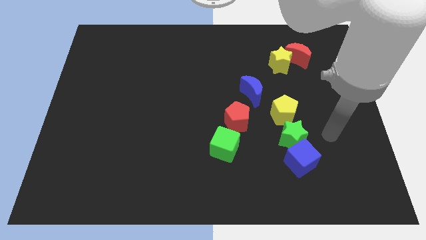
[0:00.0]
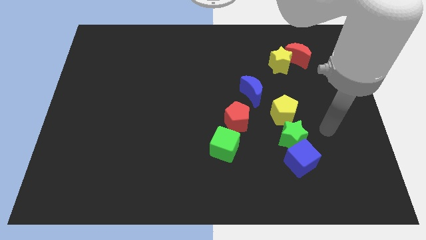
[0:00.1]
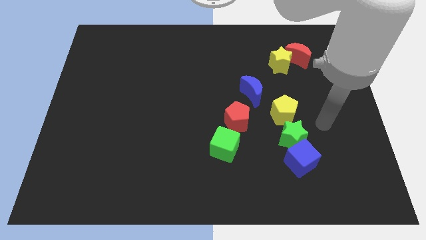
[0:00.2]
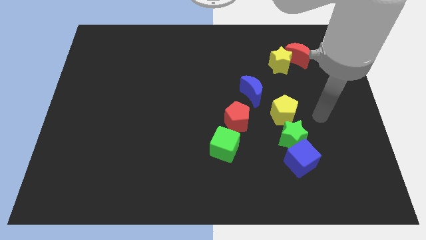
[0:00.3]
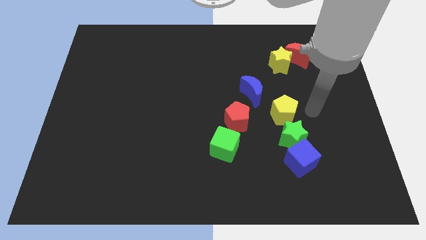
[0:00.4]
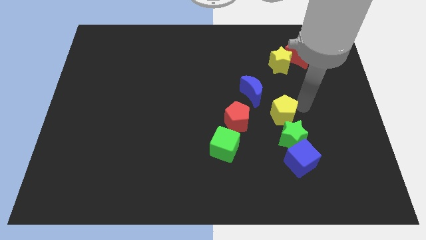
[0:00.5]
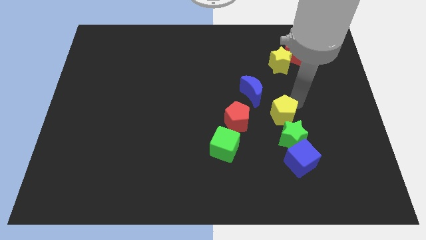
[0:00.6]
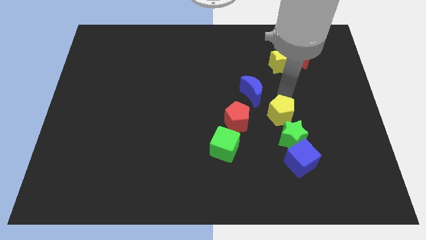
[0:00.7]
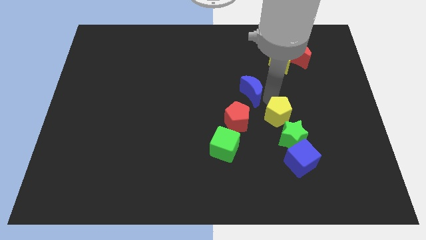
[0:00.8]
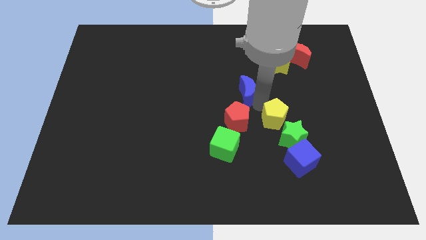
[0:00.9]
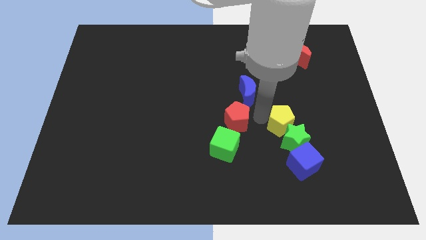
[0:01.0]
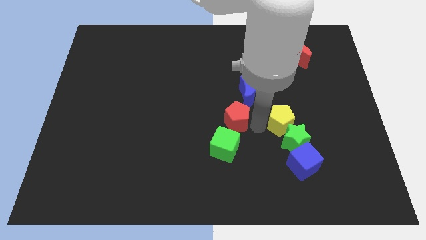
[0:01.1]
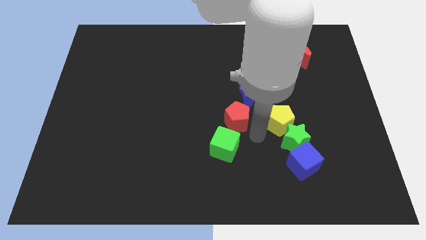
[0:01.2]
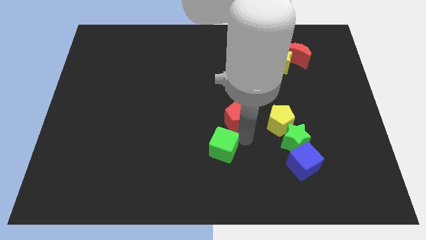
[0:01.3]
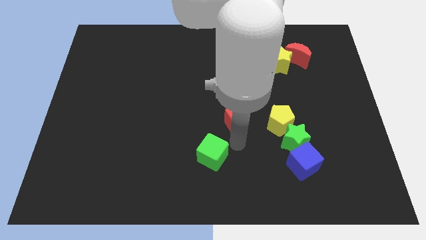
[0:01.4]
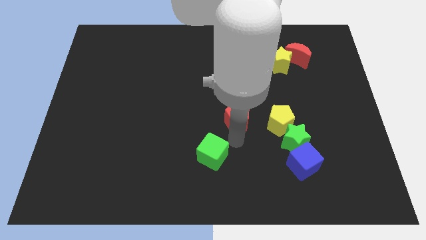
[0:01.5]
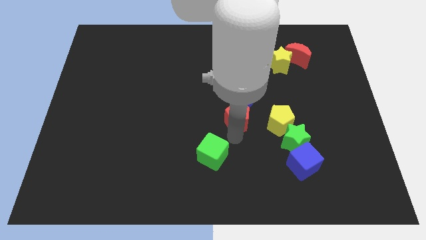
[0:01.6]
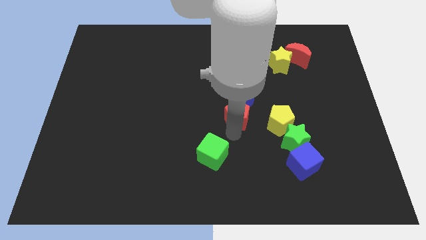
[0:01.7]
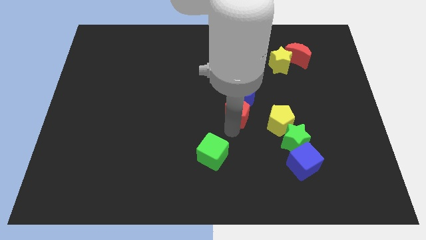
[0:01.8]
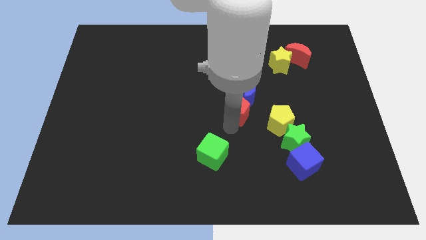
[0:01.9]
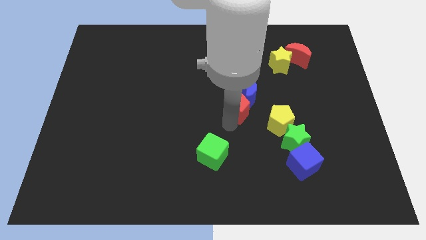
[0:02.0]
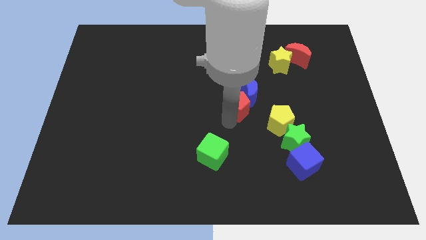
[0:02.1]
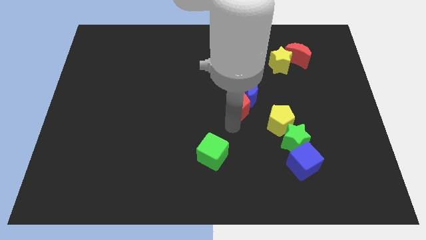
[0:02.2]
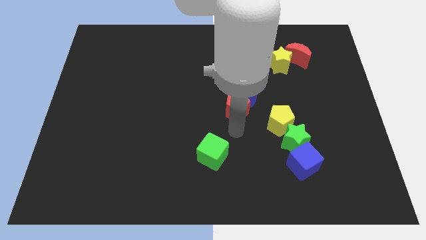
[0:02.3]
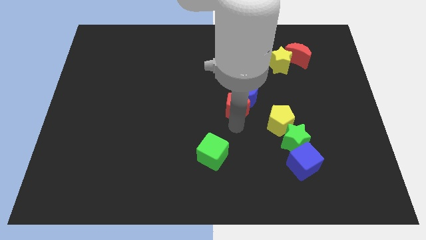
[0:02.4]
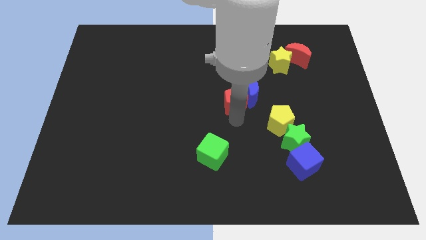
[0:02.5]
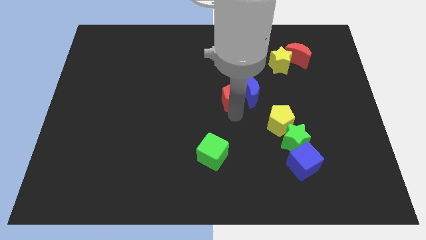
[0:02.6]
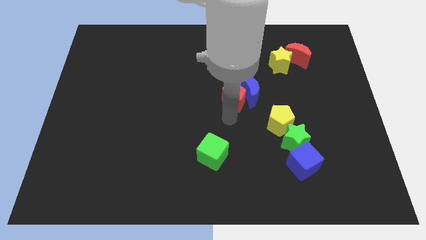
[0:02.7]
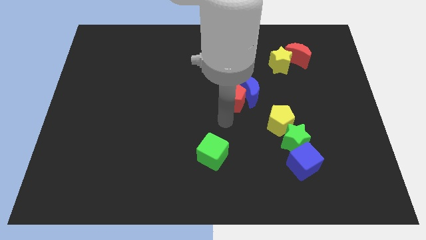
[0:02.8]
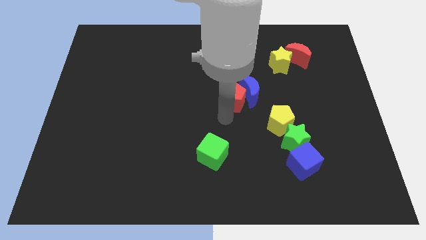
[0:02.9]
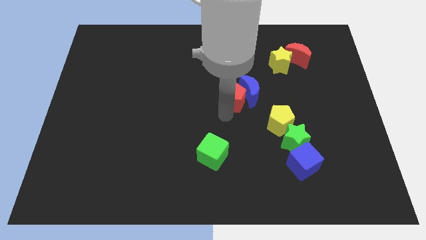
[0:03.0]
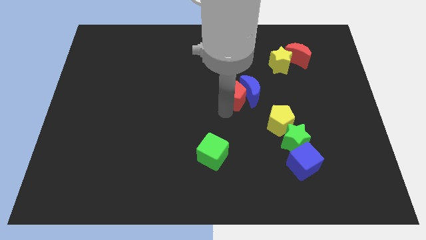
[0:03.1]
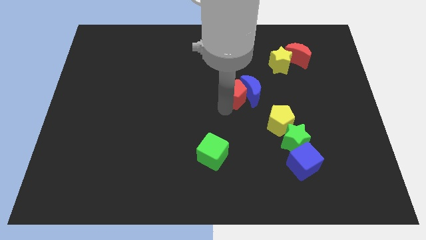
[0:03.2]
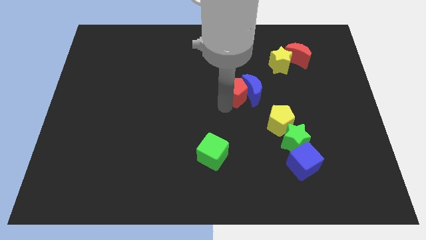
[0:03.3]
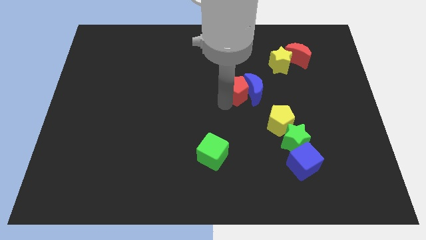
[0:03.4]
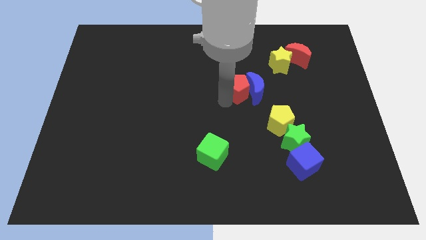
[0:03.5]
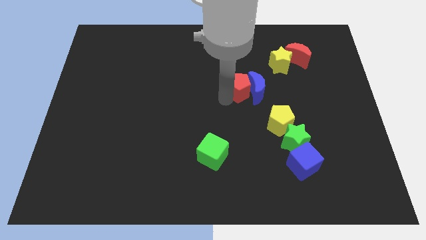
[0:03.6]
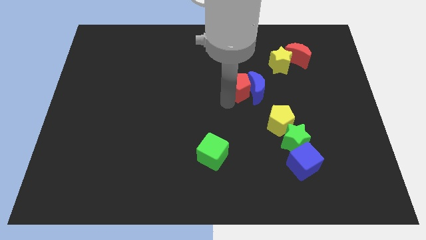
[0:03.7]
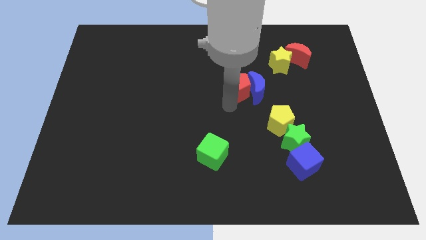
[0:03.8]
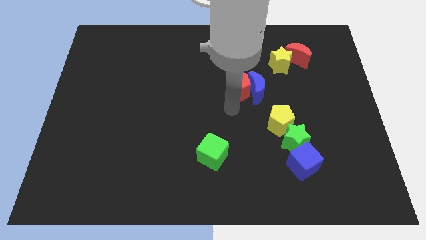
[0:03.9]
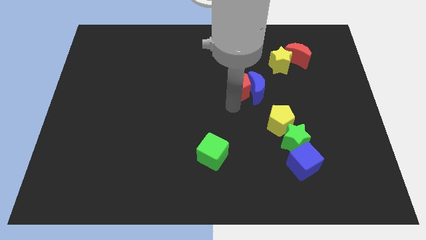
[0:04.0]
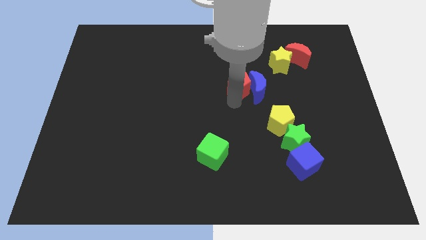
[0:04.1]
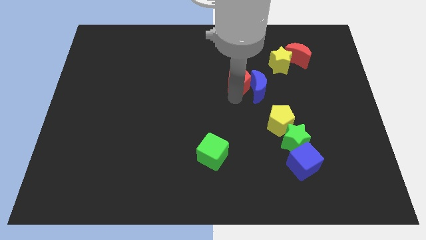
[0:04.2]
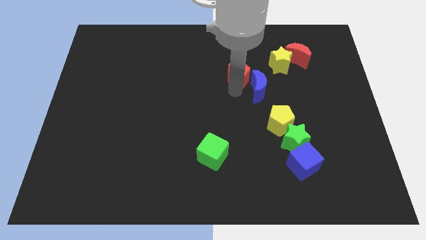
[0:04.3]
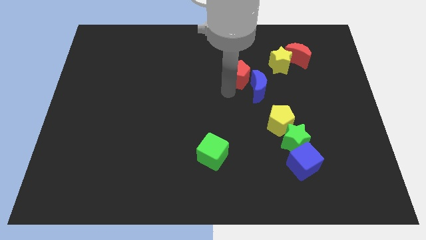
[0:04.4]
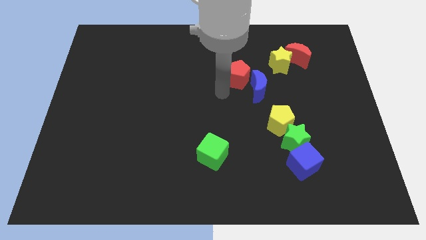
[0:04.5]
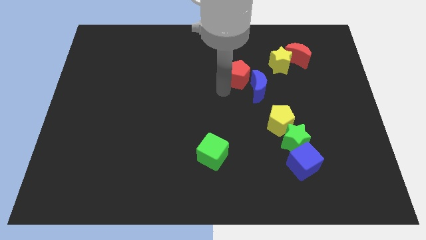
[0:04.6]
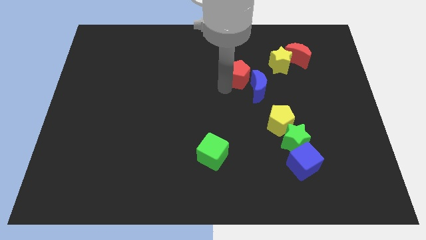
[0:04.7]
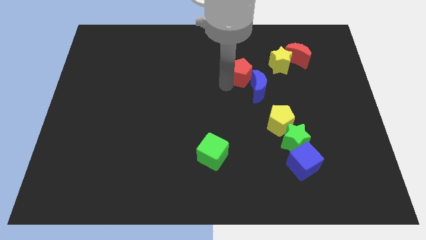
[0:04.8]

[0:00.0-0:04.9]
move the red pentagon to the top side of the blue moon

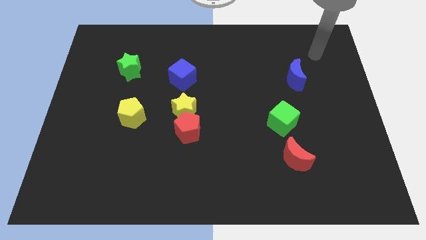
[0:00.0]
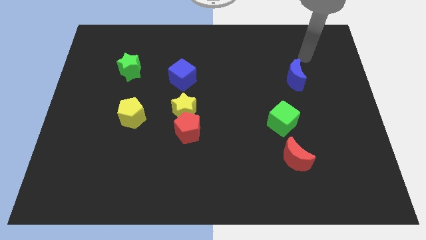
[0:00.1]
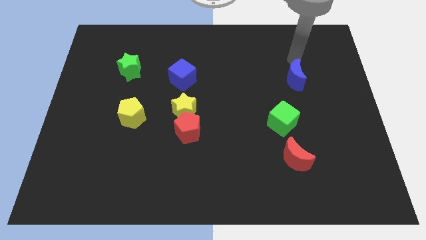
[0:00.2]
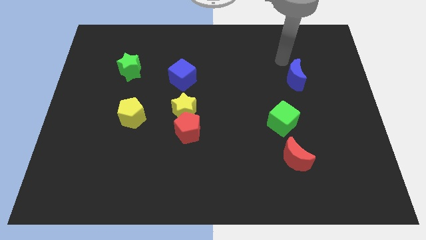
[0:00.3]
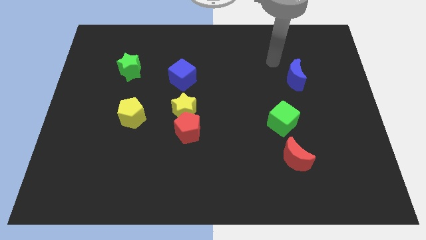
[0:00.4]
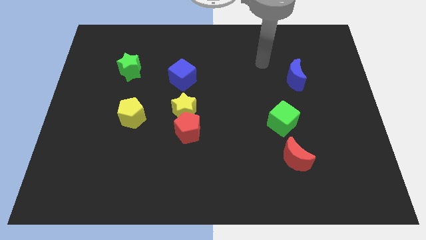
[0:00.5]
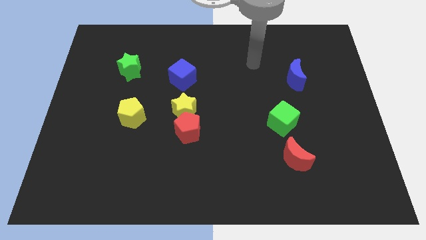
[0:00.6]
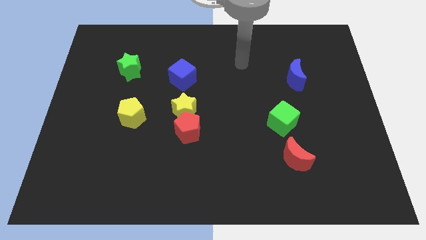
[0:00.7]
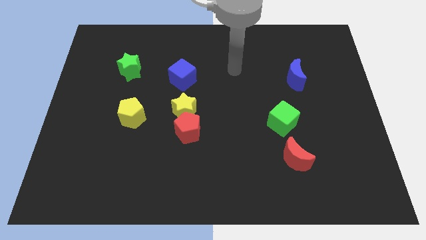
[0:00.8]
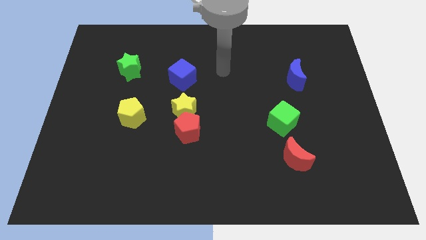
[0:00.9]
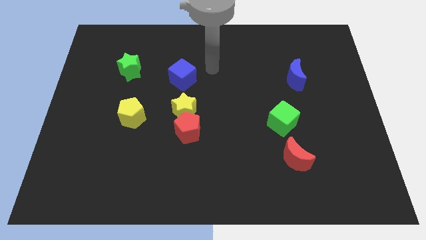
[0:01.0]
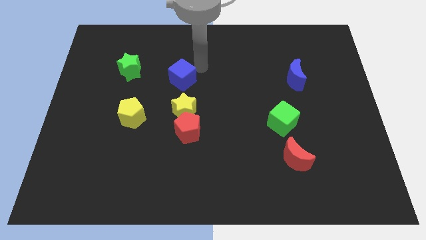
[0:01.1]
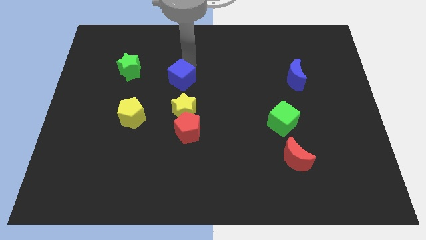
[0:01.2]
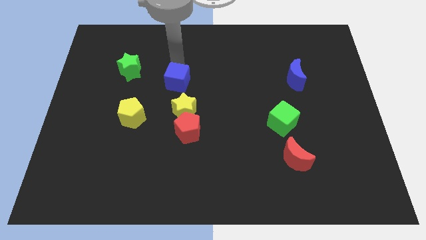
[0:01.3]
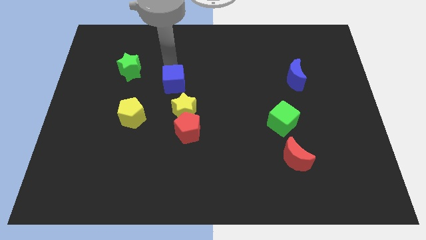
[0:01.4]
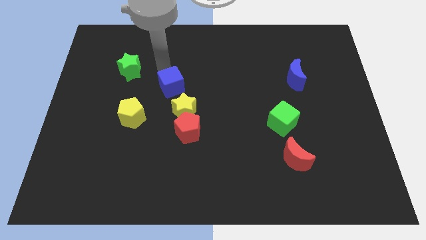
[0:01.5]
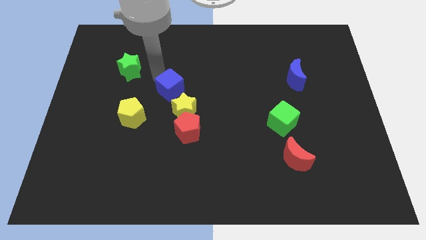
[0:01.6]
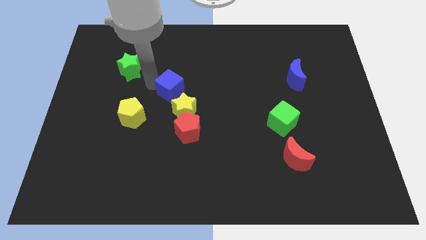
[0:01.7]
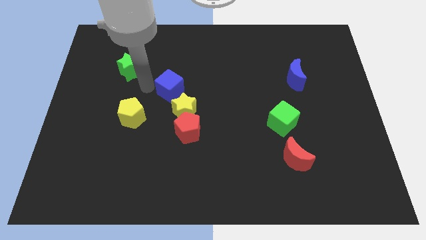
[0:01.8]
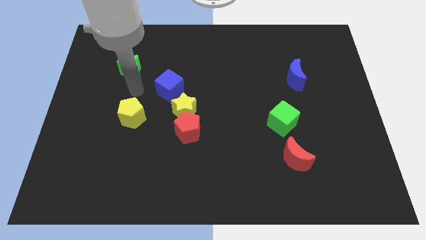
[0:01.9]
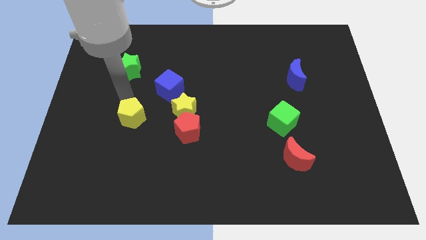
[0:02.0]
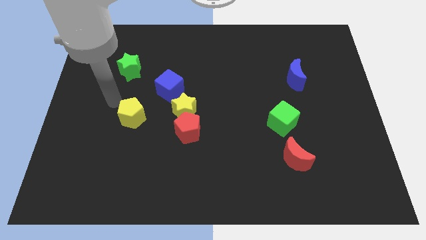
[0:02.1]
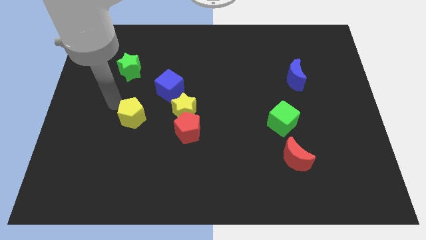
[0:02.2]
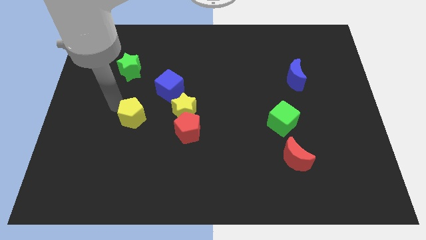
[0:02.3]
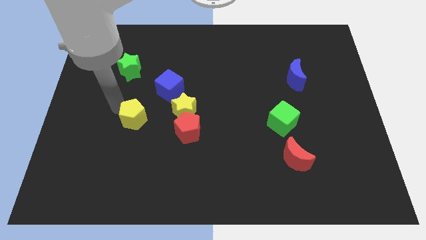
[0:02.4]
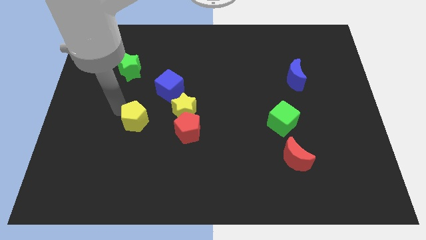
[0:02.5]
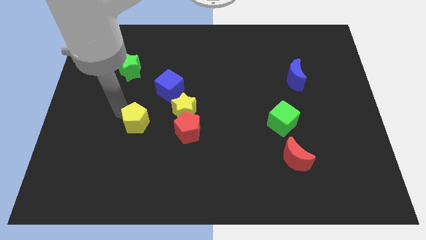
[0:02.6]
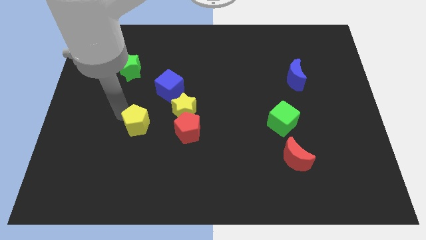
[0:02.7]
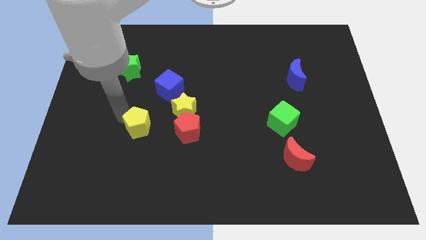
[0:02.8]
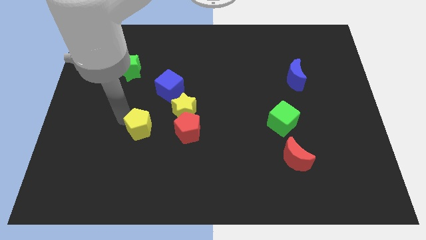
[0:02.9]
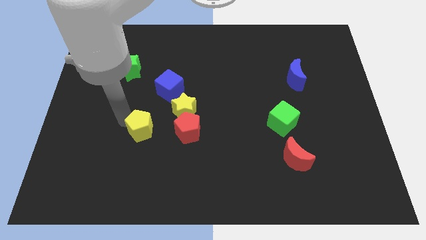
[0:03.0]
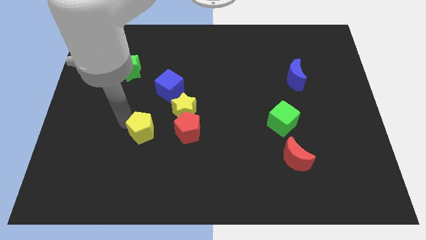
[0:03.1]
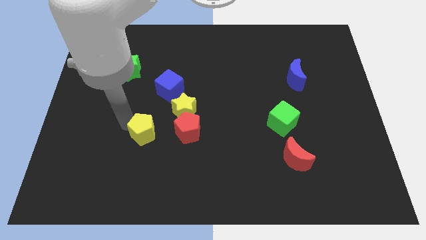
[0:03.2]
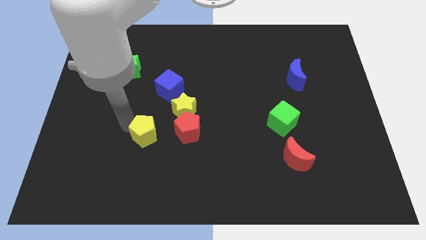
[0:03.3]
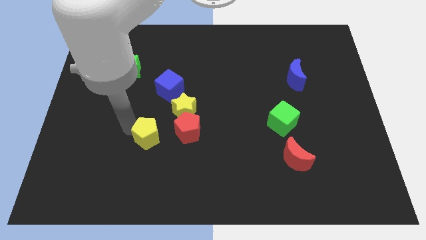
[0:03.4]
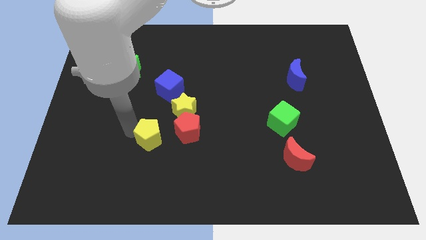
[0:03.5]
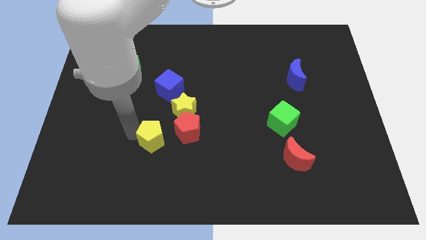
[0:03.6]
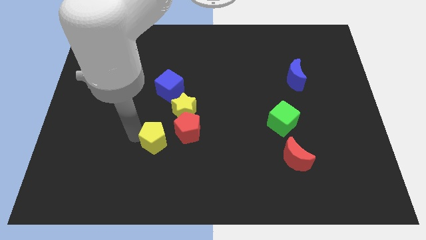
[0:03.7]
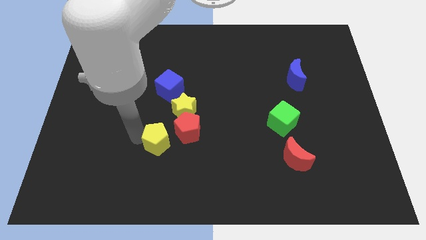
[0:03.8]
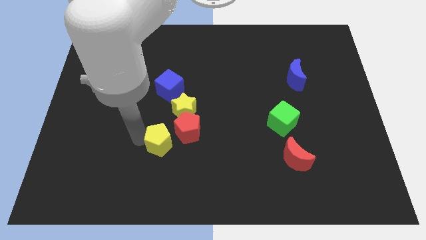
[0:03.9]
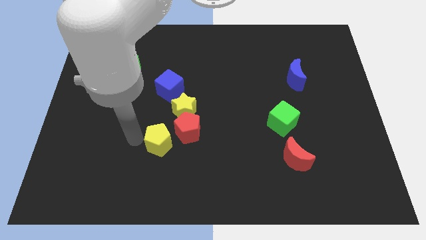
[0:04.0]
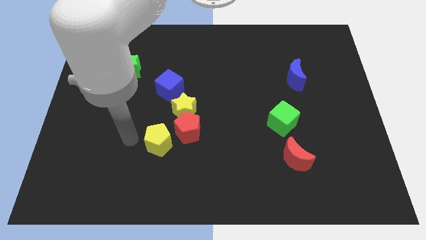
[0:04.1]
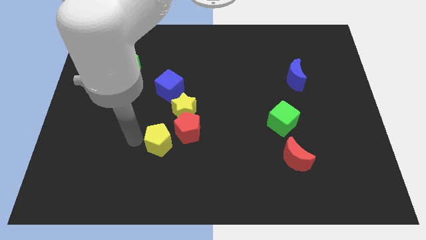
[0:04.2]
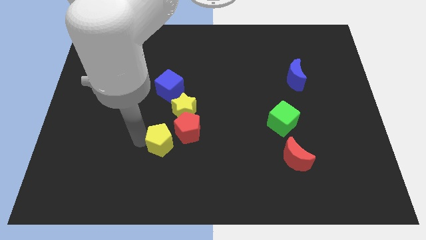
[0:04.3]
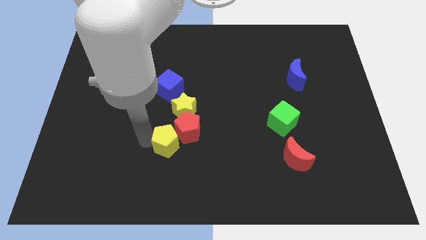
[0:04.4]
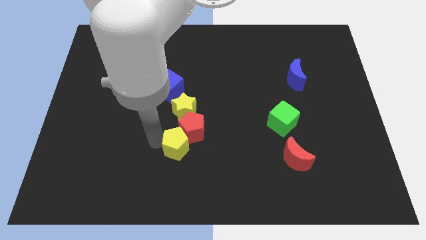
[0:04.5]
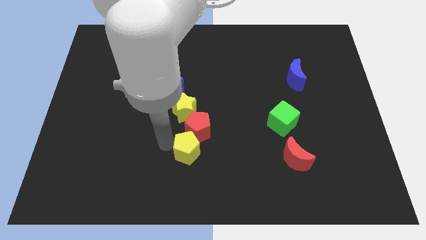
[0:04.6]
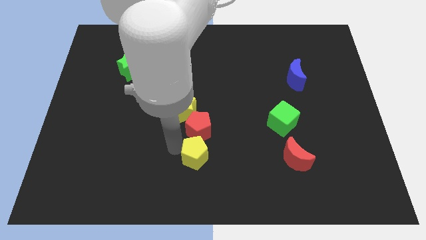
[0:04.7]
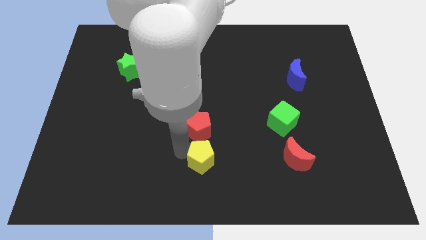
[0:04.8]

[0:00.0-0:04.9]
push the yellow pentagon to the bottom right of the red pentagon
